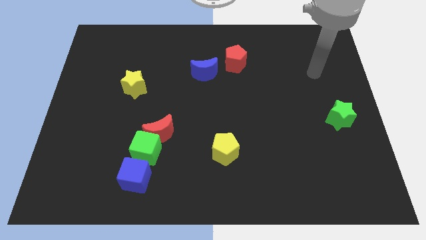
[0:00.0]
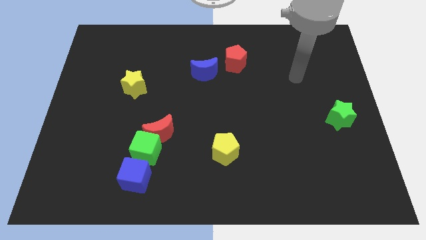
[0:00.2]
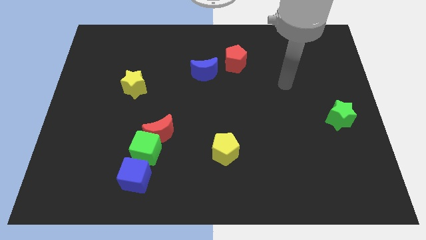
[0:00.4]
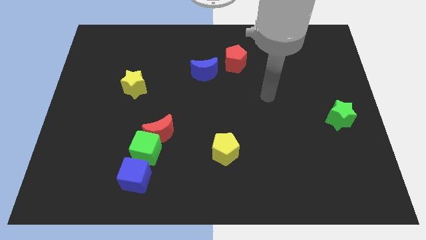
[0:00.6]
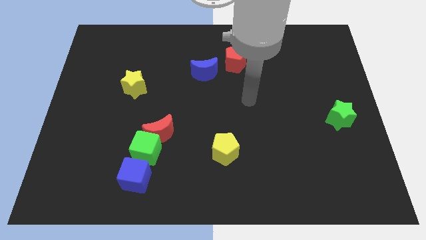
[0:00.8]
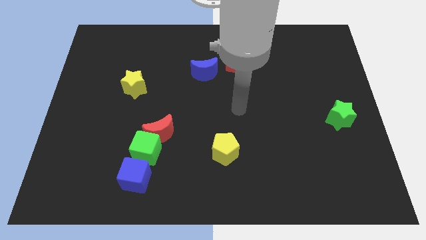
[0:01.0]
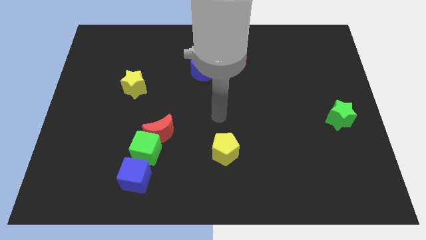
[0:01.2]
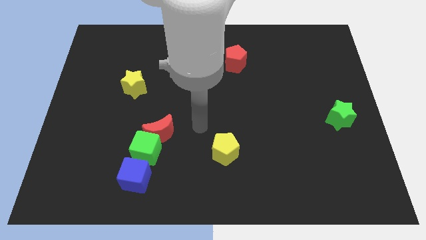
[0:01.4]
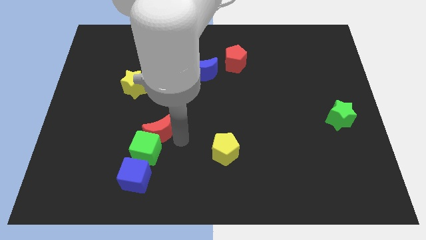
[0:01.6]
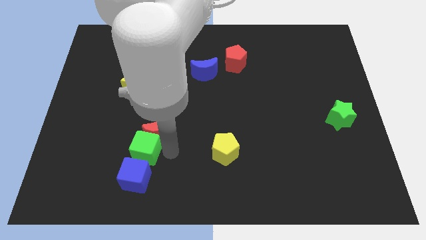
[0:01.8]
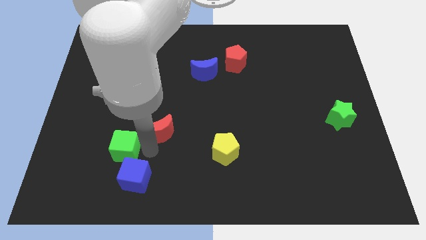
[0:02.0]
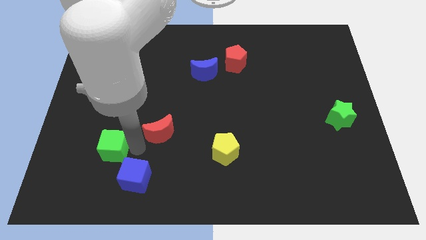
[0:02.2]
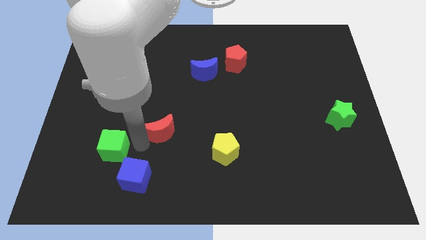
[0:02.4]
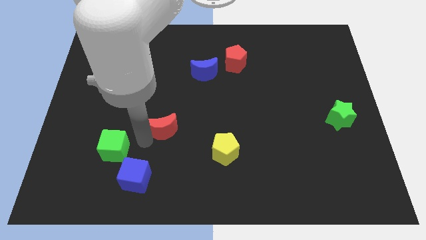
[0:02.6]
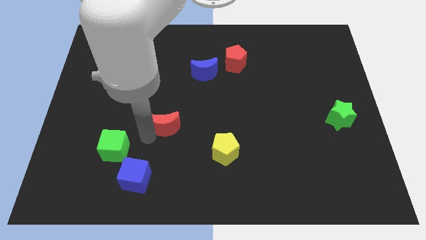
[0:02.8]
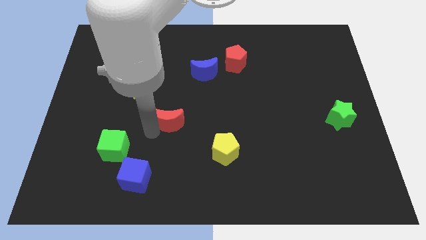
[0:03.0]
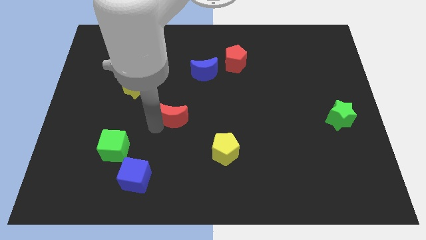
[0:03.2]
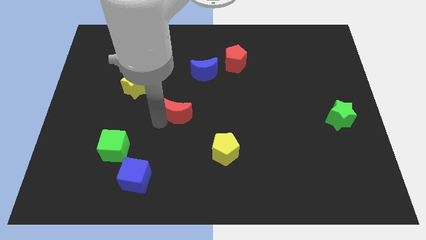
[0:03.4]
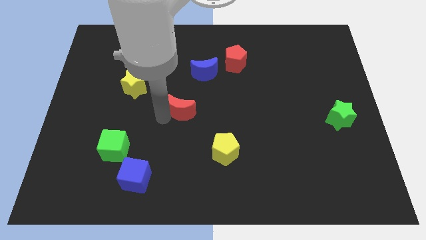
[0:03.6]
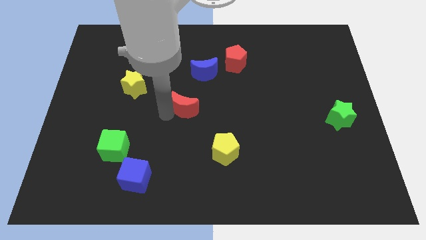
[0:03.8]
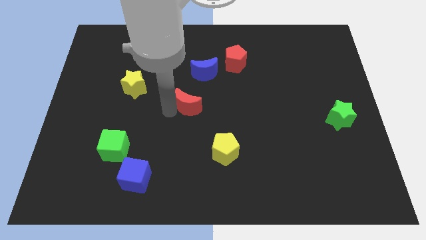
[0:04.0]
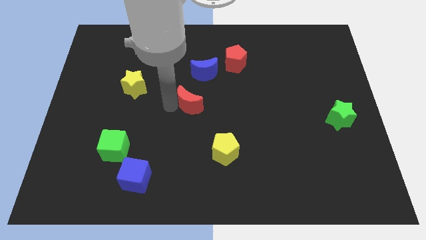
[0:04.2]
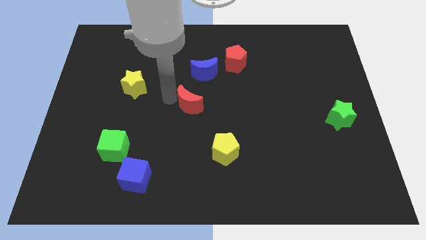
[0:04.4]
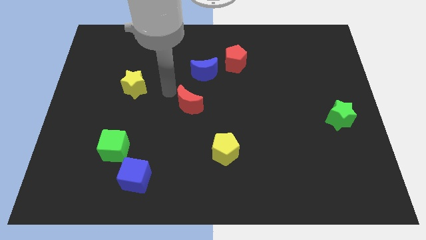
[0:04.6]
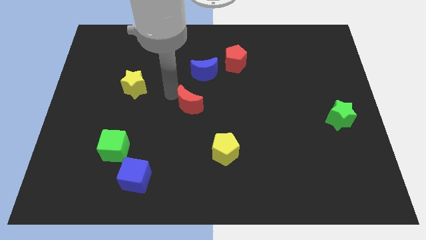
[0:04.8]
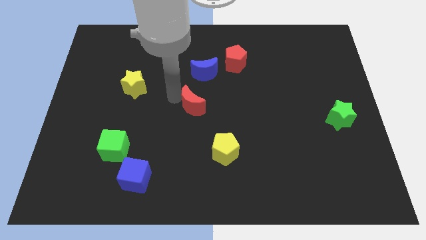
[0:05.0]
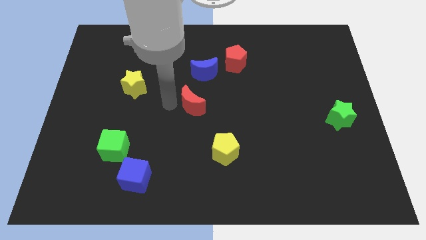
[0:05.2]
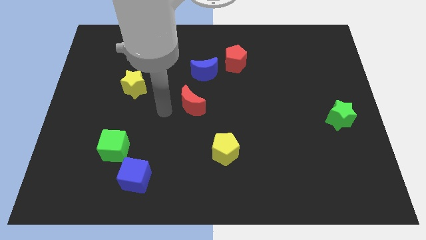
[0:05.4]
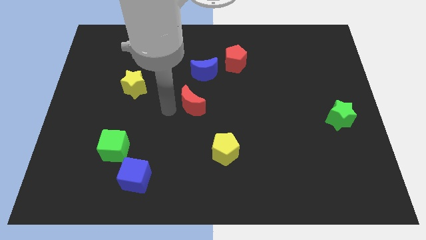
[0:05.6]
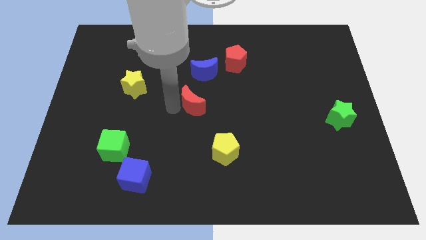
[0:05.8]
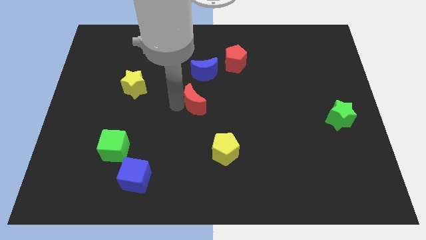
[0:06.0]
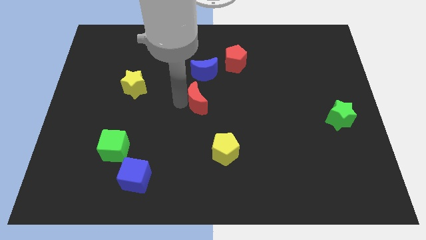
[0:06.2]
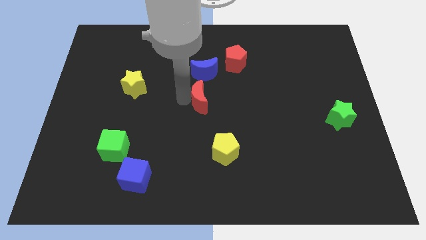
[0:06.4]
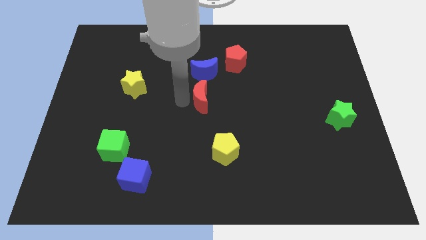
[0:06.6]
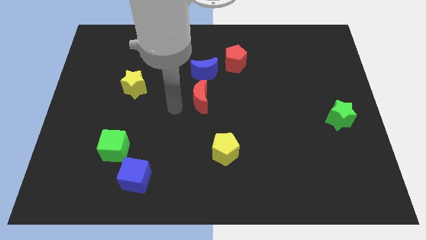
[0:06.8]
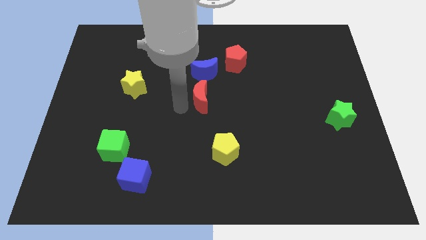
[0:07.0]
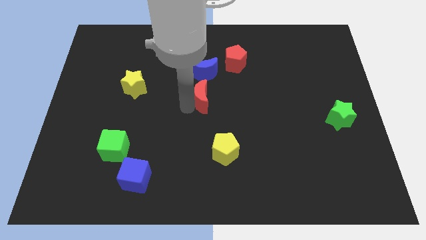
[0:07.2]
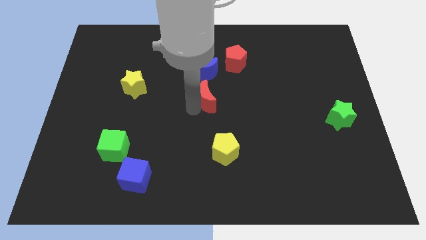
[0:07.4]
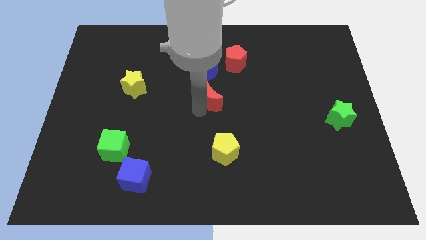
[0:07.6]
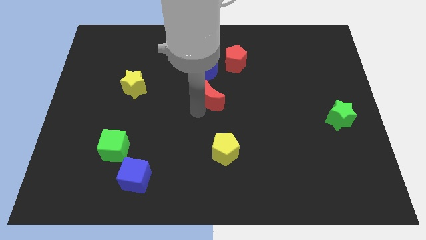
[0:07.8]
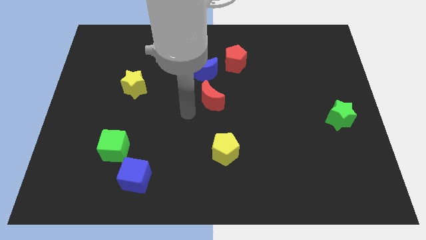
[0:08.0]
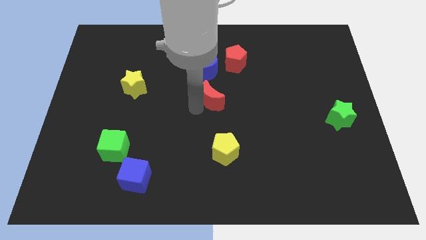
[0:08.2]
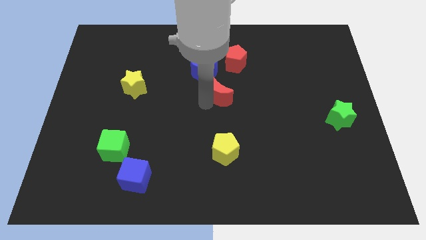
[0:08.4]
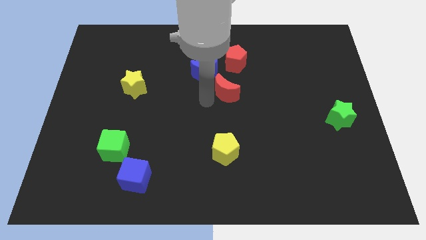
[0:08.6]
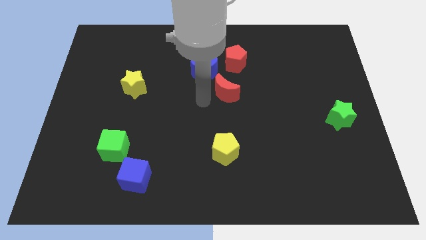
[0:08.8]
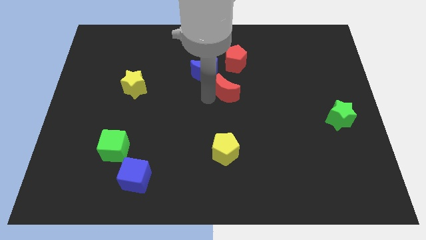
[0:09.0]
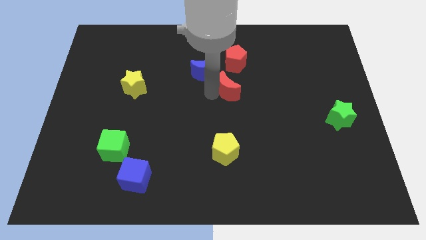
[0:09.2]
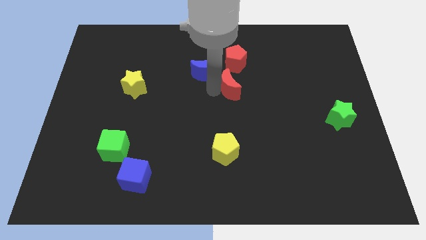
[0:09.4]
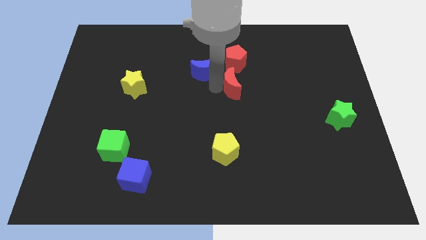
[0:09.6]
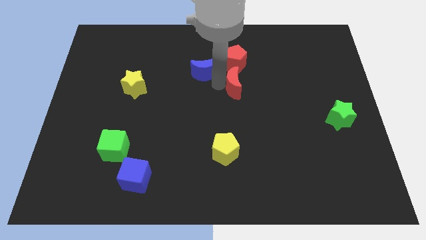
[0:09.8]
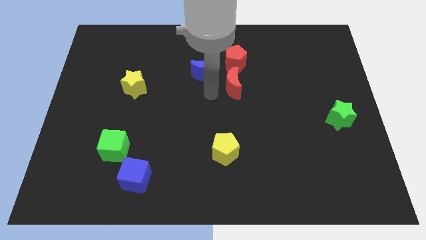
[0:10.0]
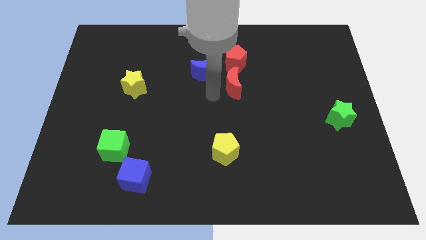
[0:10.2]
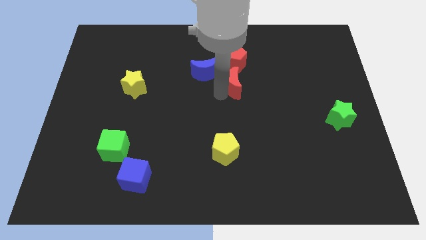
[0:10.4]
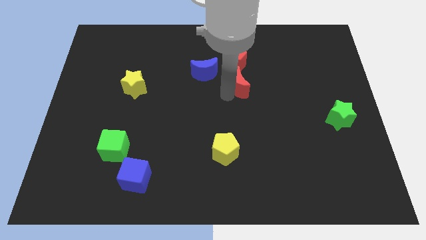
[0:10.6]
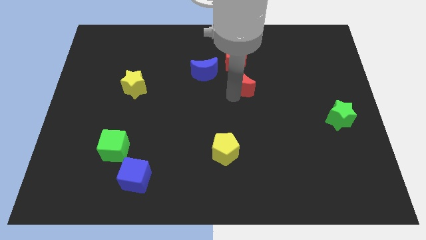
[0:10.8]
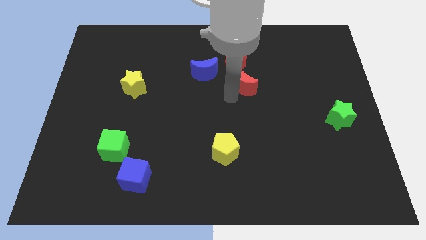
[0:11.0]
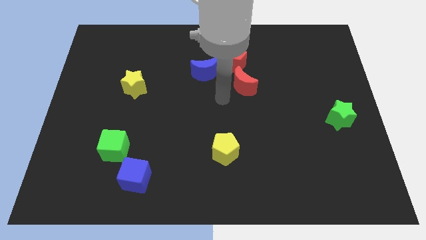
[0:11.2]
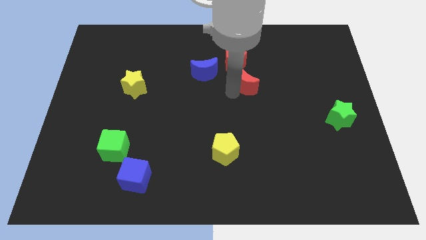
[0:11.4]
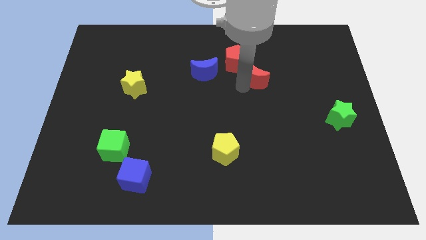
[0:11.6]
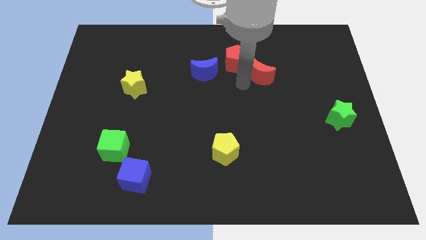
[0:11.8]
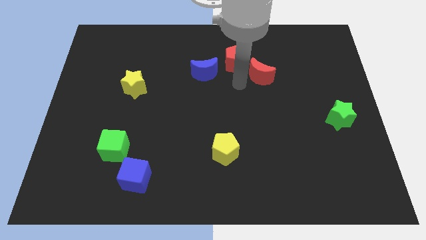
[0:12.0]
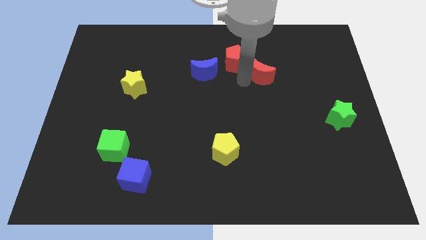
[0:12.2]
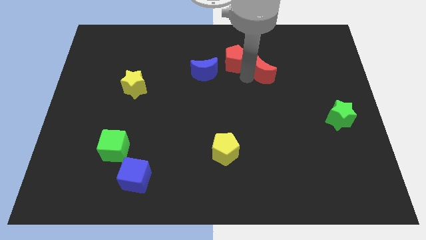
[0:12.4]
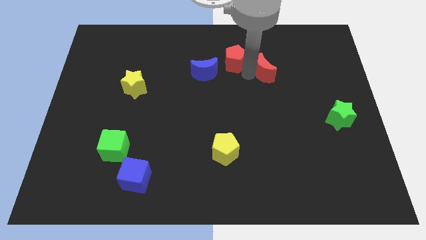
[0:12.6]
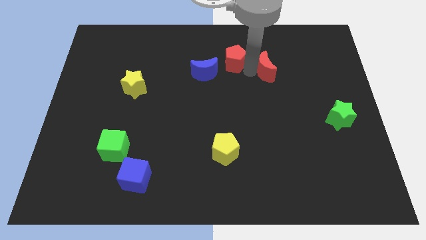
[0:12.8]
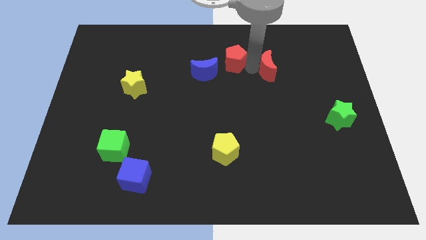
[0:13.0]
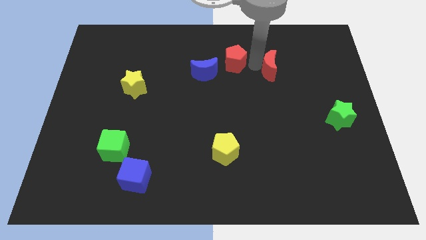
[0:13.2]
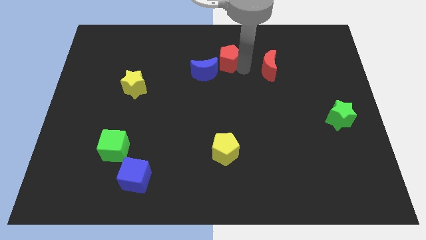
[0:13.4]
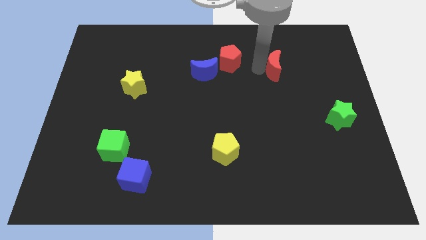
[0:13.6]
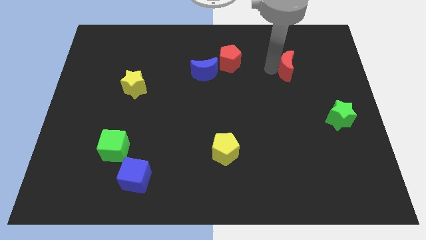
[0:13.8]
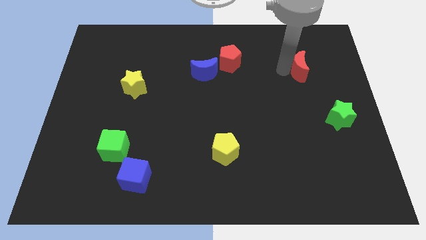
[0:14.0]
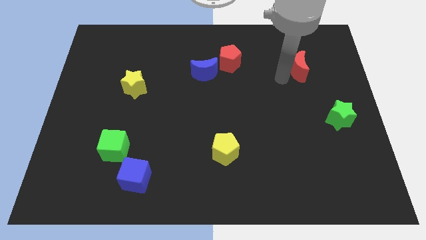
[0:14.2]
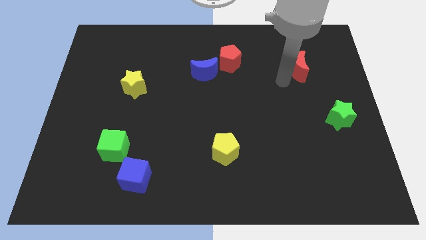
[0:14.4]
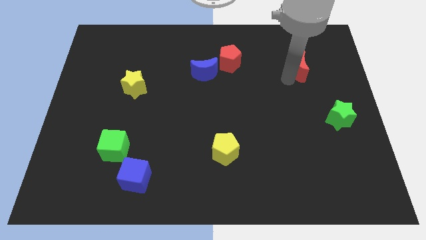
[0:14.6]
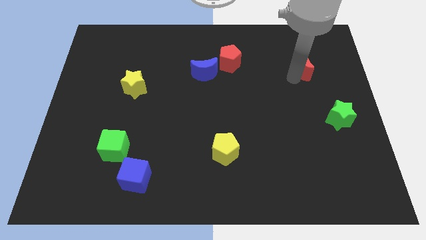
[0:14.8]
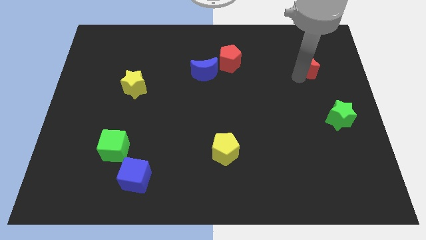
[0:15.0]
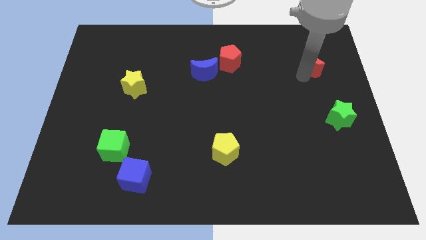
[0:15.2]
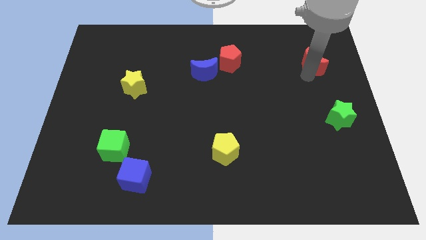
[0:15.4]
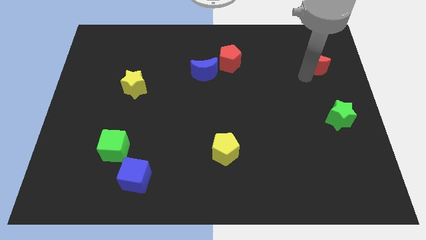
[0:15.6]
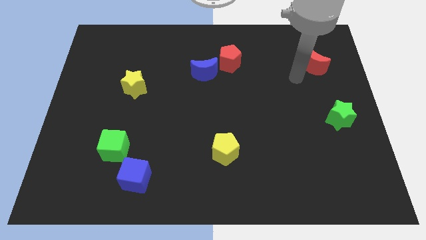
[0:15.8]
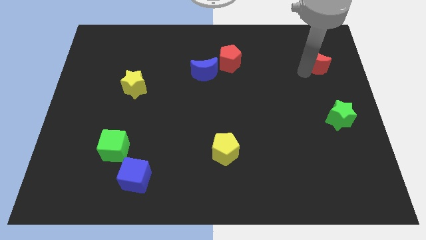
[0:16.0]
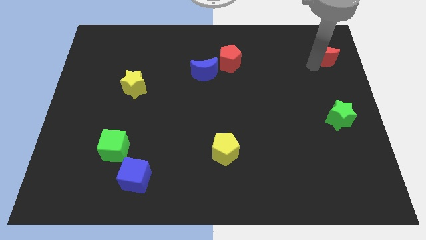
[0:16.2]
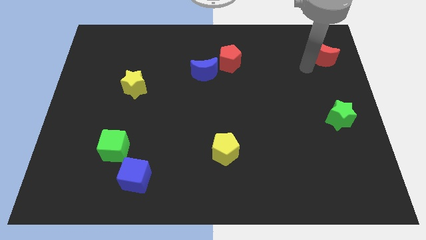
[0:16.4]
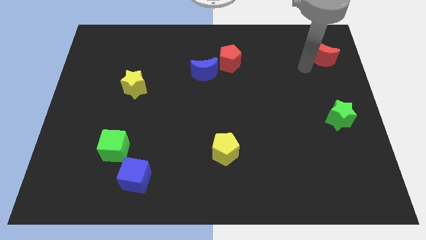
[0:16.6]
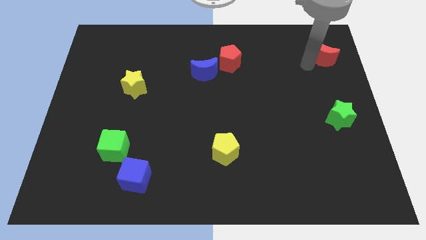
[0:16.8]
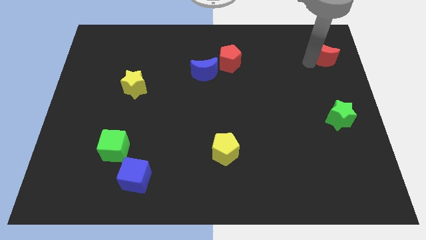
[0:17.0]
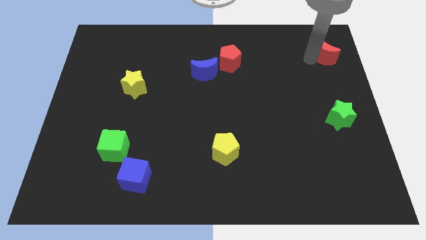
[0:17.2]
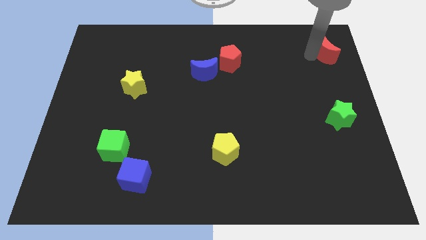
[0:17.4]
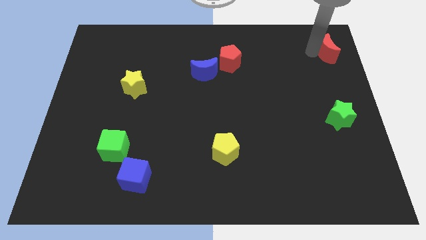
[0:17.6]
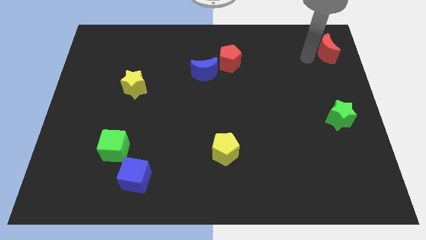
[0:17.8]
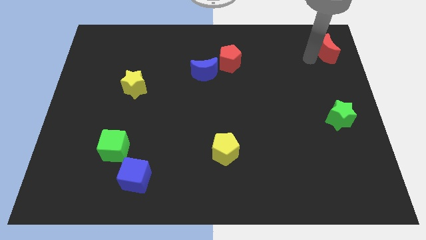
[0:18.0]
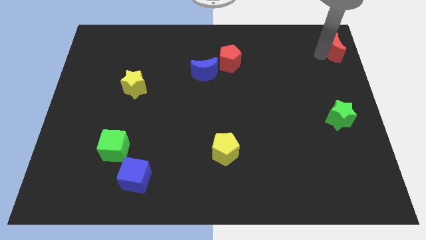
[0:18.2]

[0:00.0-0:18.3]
push the red moon to the upper right corner
